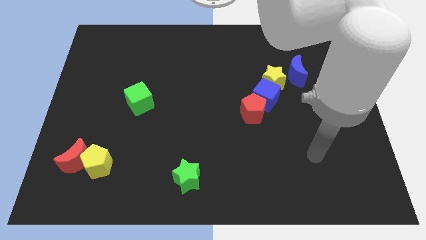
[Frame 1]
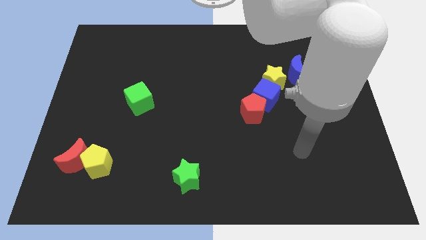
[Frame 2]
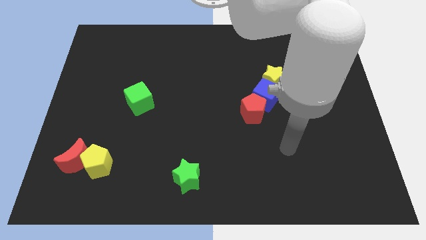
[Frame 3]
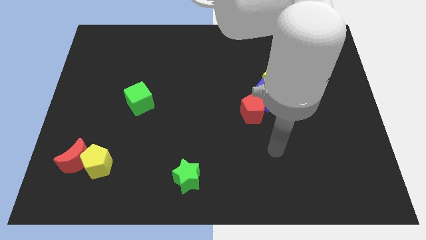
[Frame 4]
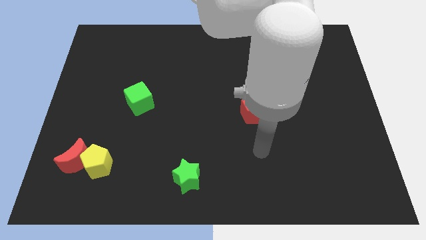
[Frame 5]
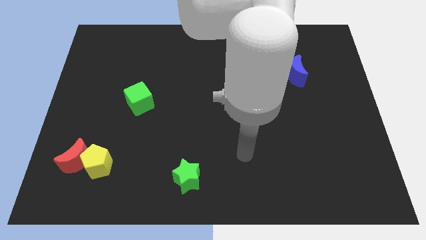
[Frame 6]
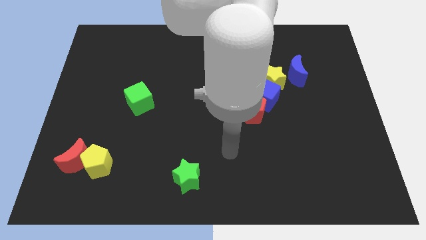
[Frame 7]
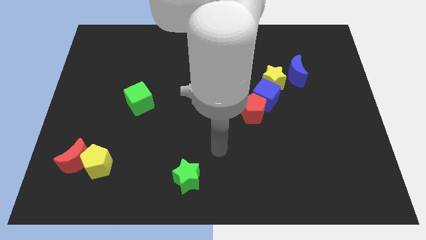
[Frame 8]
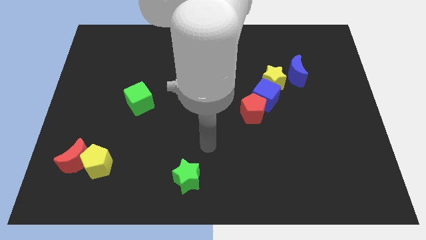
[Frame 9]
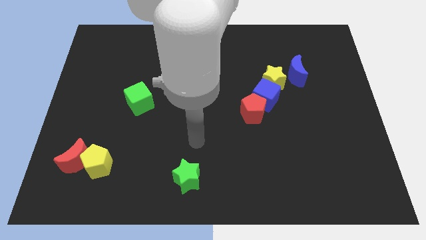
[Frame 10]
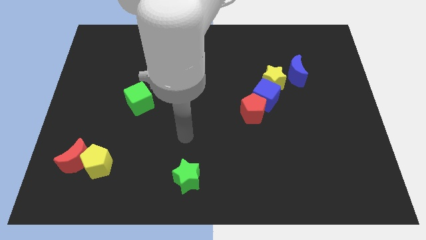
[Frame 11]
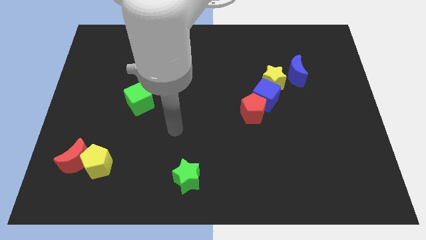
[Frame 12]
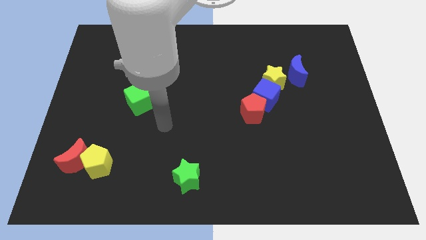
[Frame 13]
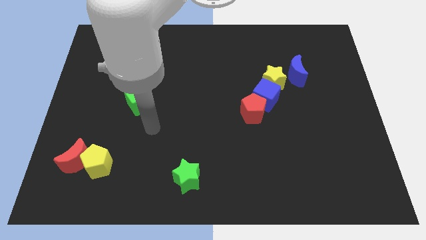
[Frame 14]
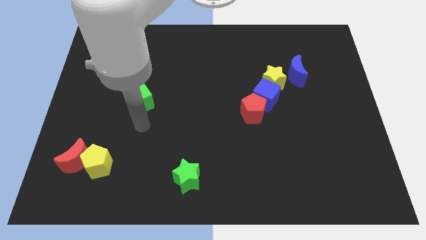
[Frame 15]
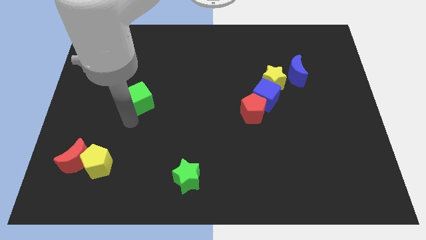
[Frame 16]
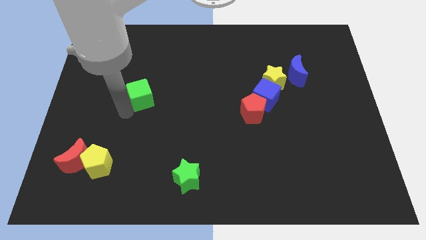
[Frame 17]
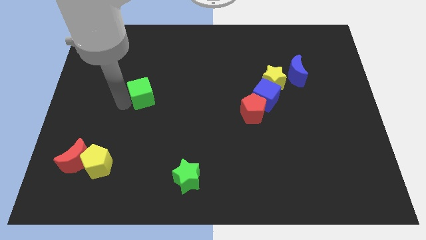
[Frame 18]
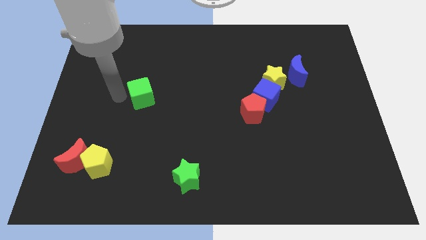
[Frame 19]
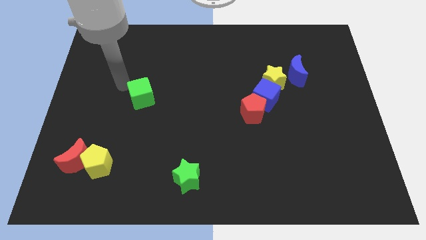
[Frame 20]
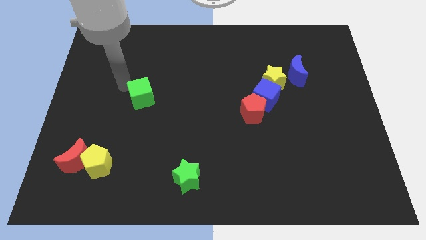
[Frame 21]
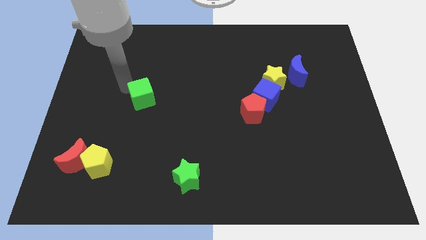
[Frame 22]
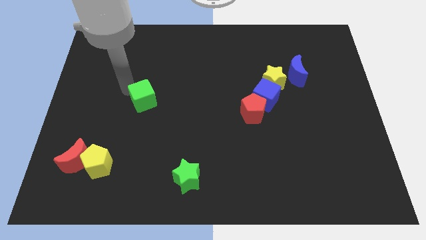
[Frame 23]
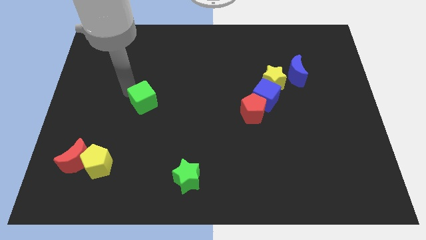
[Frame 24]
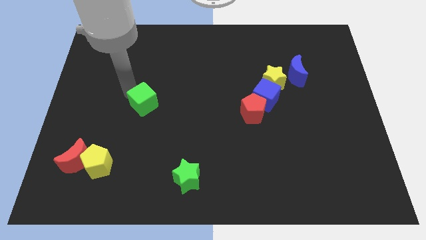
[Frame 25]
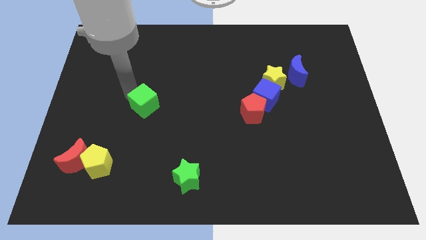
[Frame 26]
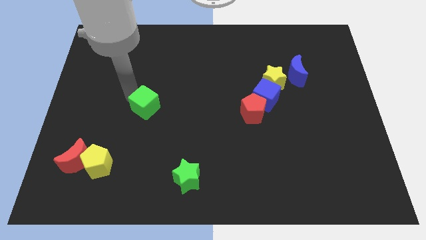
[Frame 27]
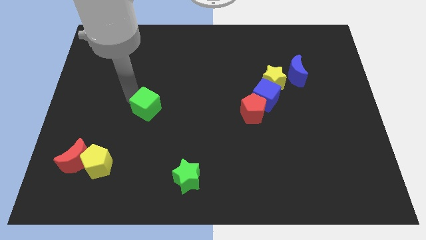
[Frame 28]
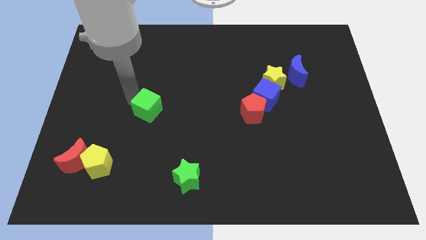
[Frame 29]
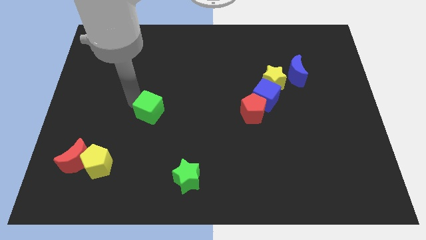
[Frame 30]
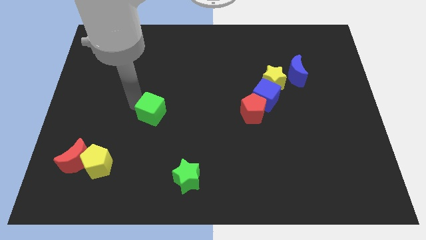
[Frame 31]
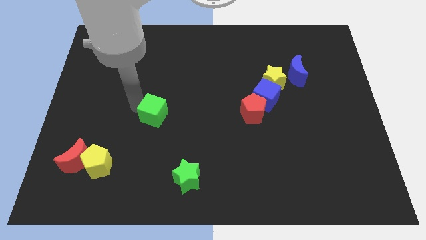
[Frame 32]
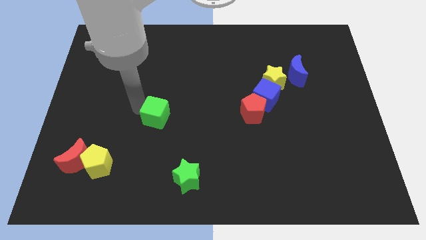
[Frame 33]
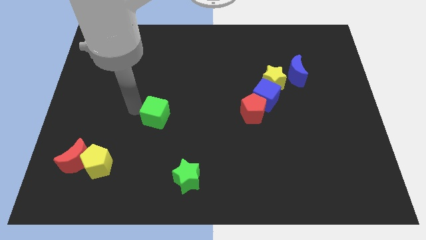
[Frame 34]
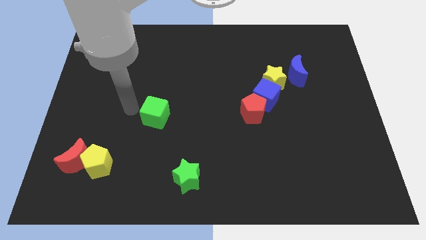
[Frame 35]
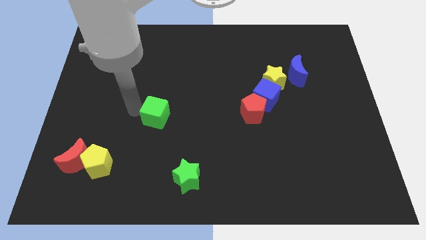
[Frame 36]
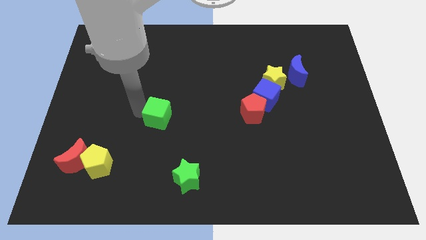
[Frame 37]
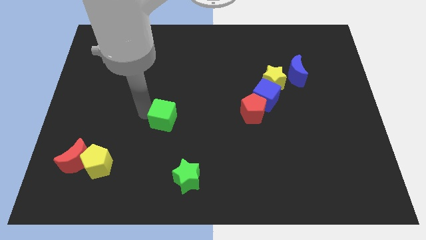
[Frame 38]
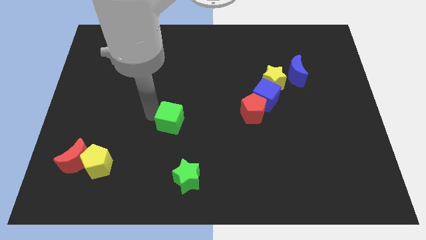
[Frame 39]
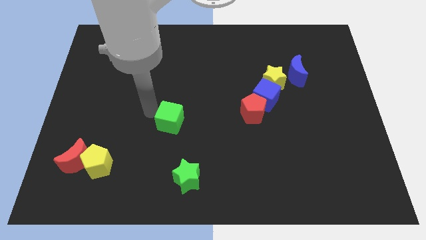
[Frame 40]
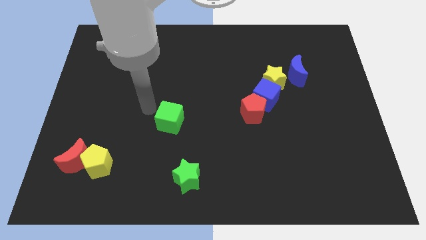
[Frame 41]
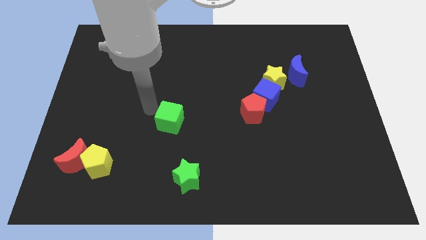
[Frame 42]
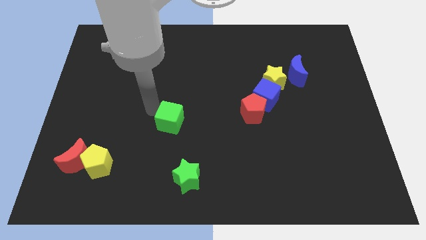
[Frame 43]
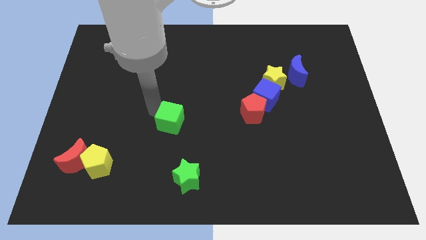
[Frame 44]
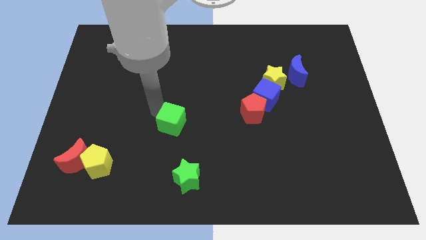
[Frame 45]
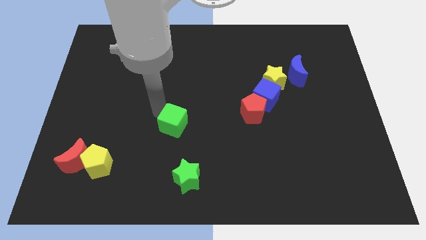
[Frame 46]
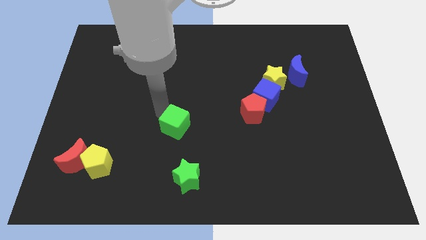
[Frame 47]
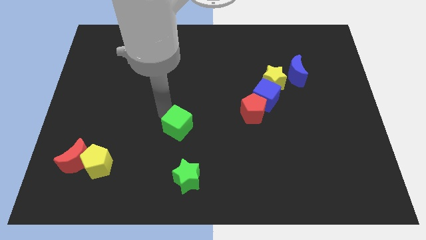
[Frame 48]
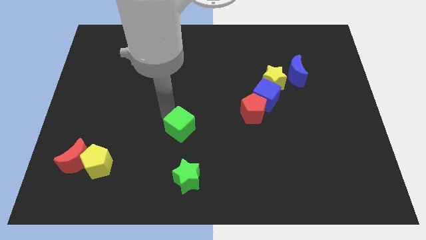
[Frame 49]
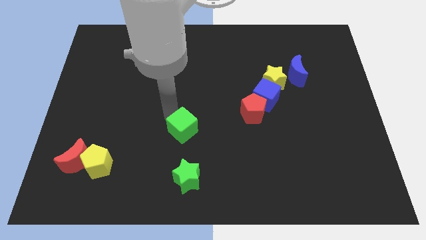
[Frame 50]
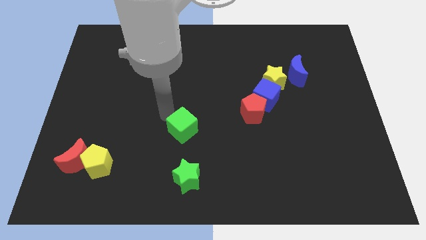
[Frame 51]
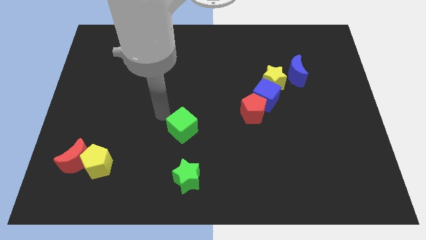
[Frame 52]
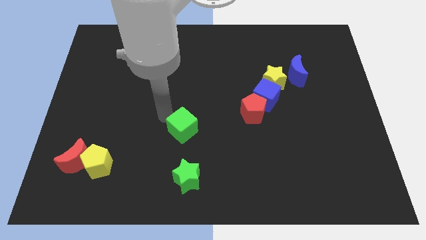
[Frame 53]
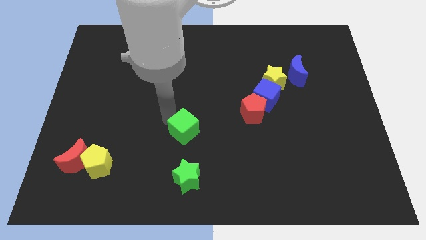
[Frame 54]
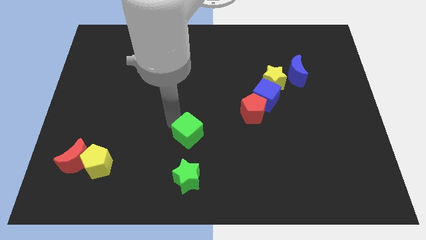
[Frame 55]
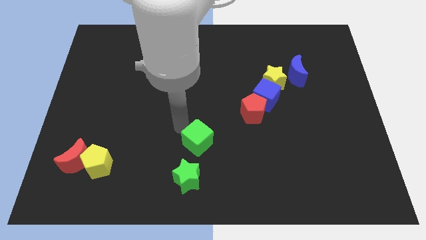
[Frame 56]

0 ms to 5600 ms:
put the green cube diagonally up and to the right of the green star

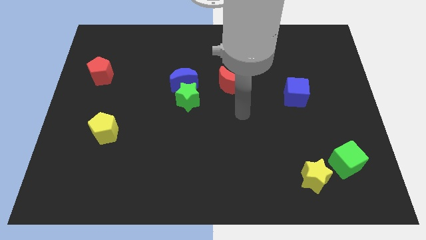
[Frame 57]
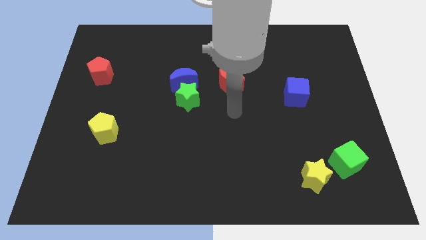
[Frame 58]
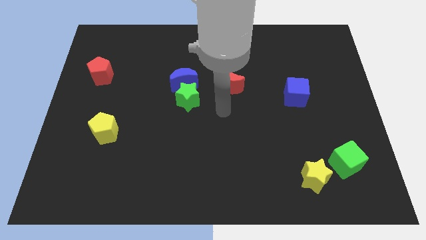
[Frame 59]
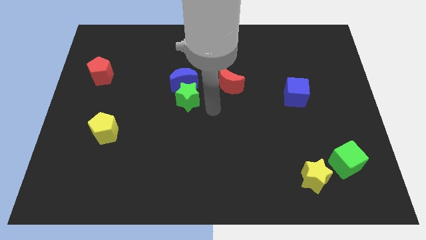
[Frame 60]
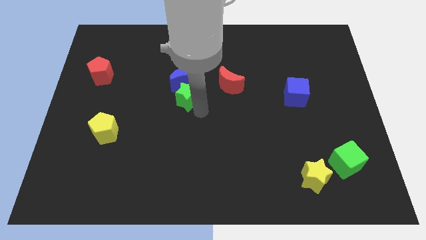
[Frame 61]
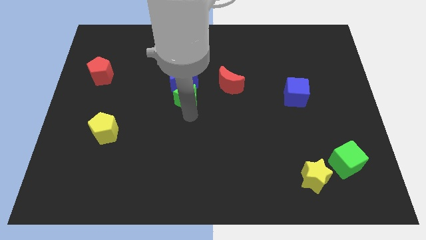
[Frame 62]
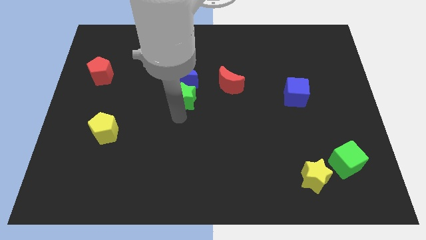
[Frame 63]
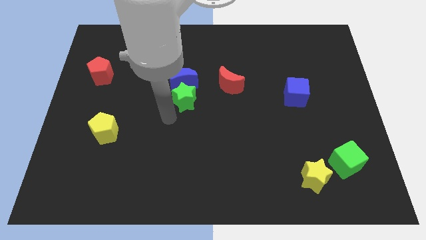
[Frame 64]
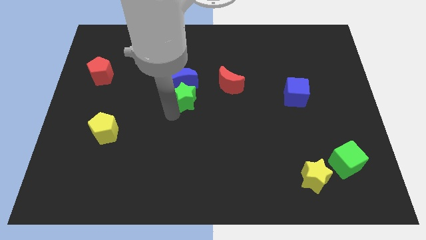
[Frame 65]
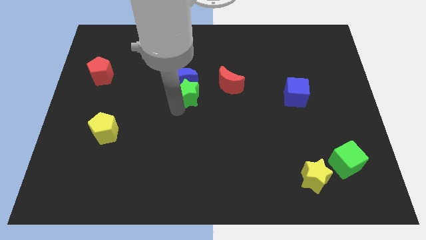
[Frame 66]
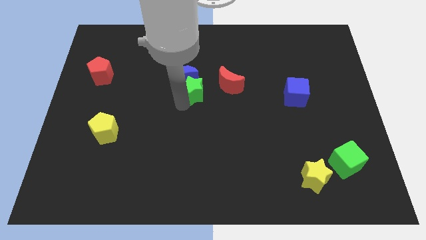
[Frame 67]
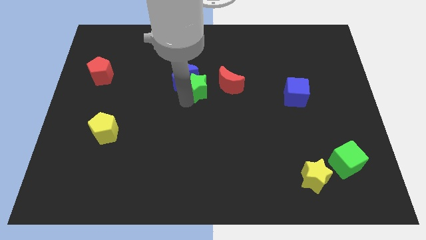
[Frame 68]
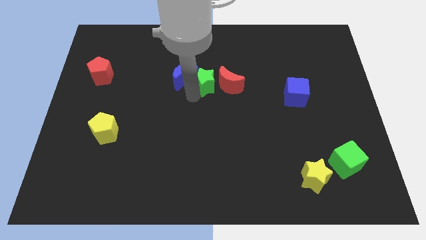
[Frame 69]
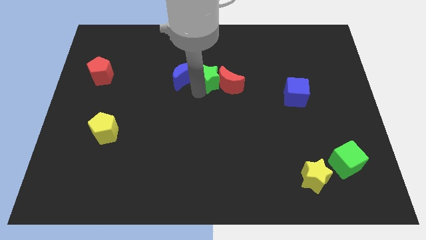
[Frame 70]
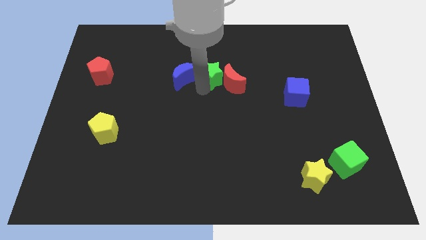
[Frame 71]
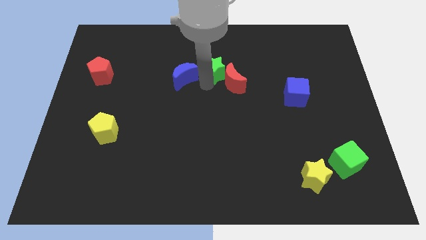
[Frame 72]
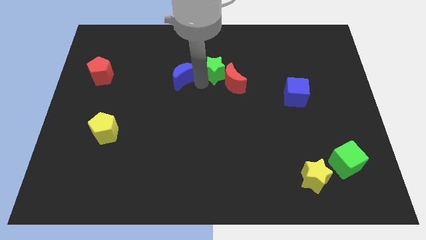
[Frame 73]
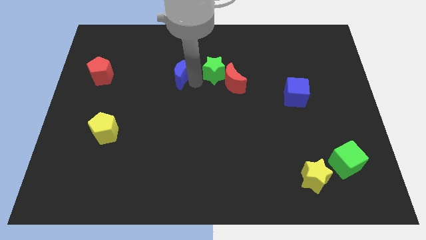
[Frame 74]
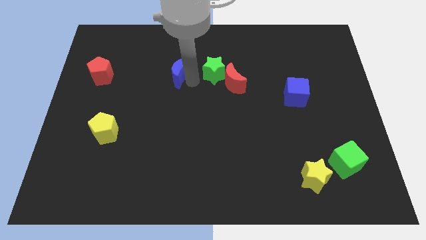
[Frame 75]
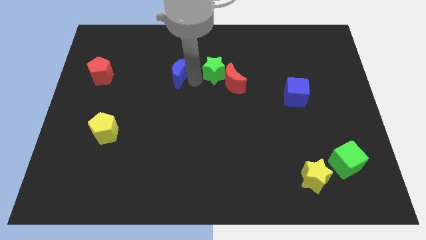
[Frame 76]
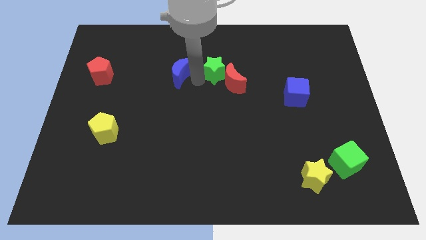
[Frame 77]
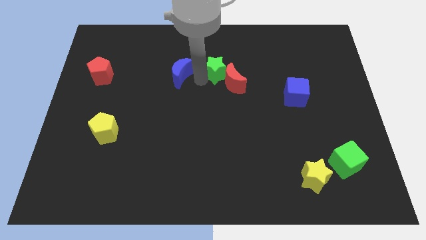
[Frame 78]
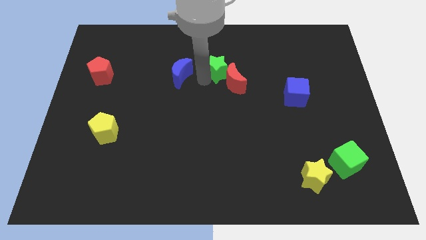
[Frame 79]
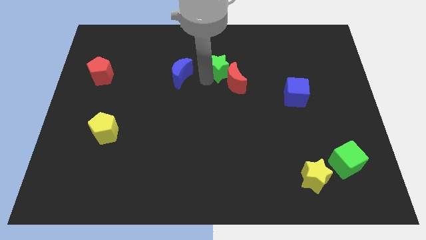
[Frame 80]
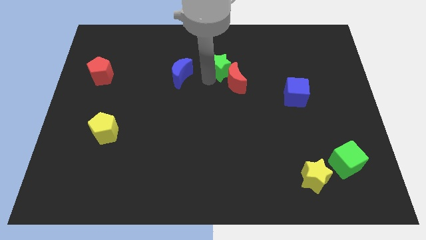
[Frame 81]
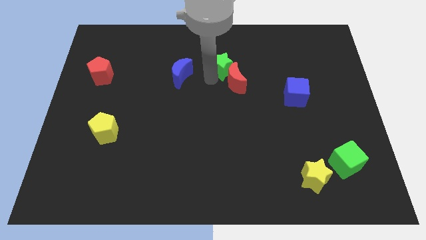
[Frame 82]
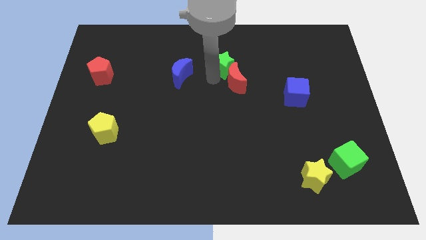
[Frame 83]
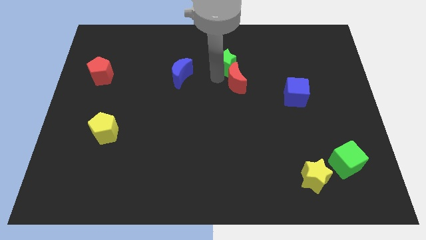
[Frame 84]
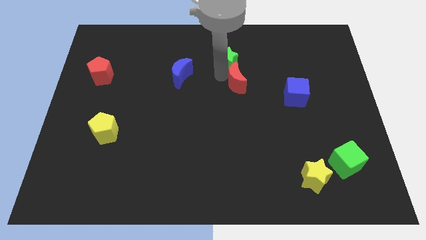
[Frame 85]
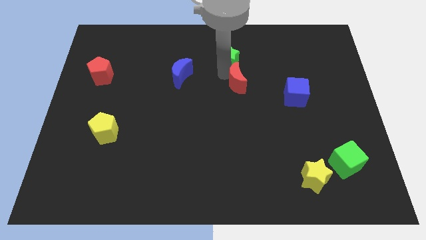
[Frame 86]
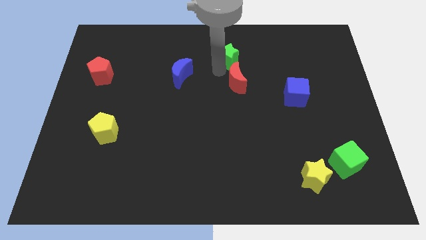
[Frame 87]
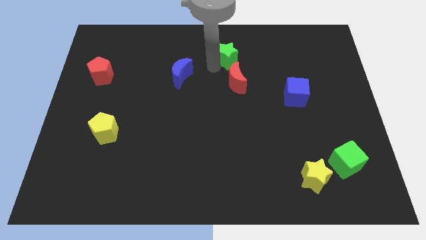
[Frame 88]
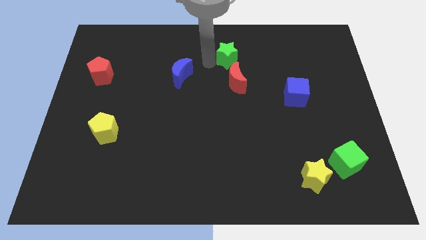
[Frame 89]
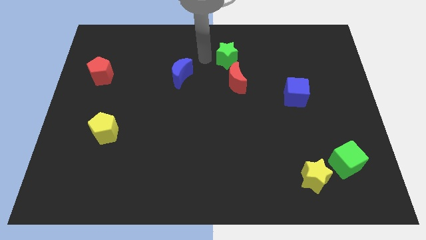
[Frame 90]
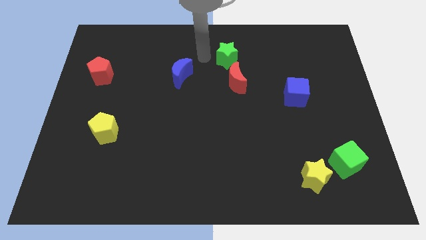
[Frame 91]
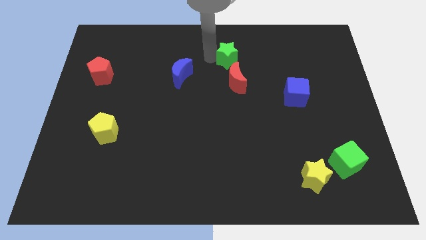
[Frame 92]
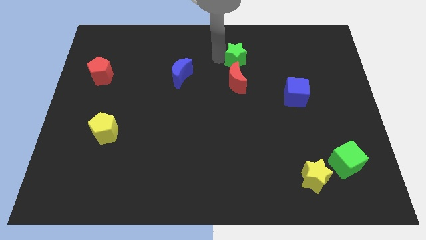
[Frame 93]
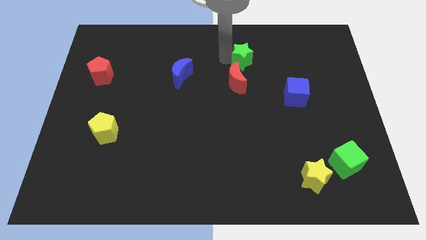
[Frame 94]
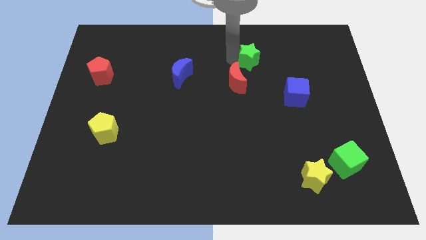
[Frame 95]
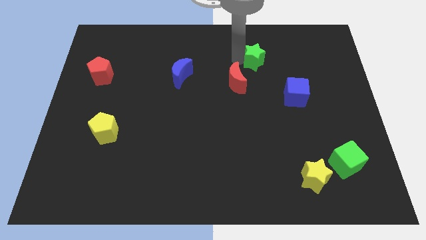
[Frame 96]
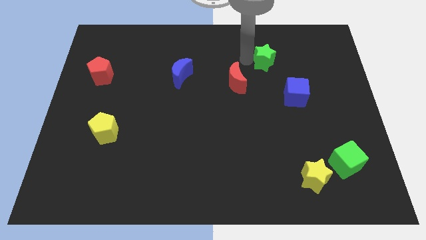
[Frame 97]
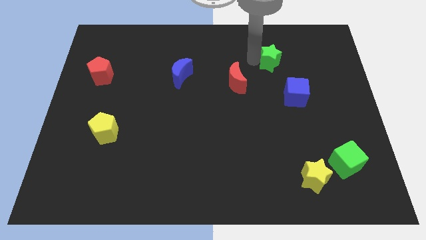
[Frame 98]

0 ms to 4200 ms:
put the green star to the top side of the blue cube
